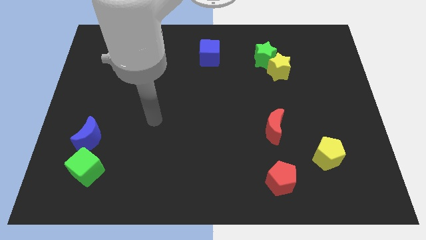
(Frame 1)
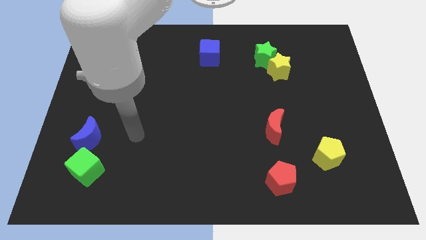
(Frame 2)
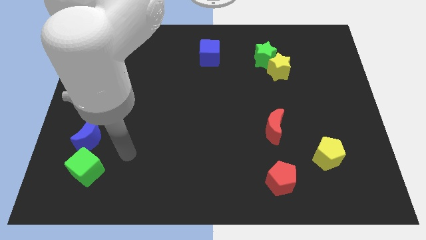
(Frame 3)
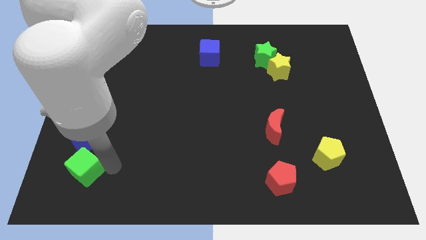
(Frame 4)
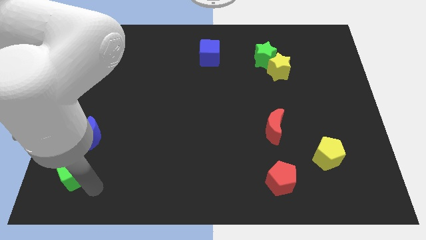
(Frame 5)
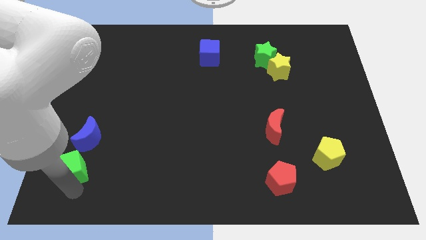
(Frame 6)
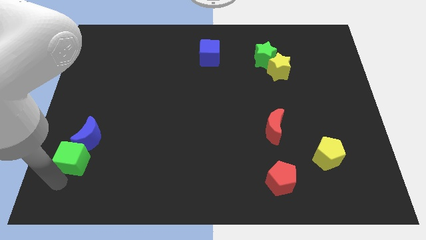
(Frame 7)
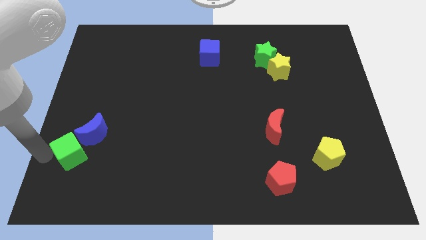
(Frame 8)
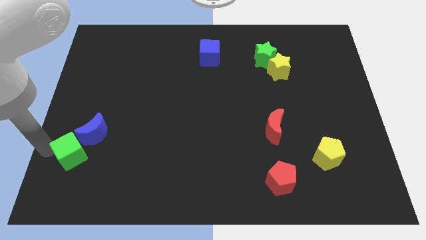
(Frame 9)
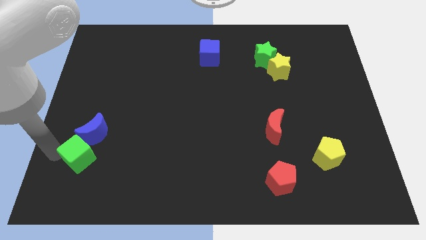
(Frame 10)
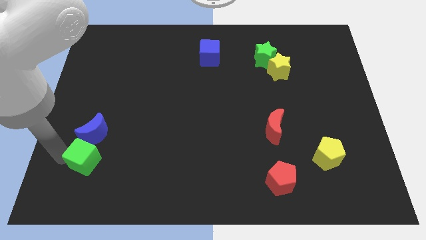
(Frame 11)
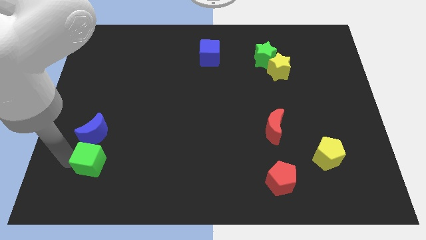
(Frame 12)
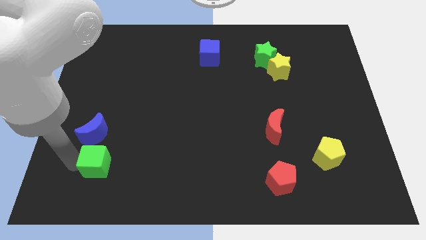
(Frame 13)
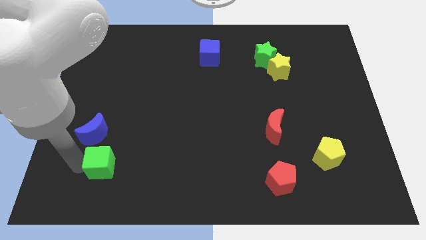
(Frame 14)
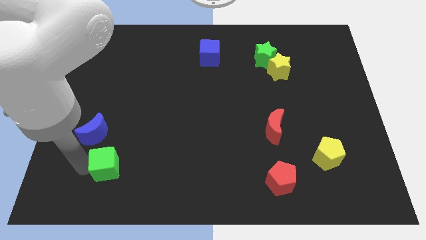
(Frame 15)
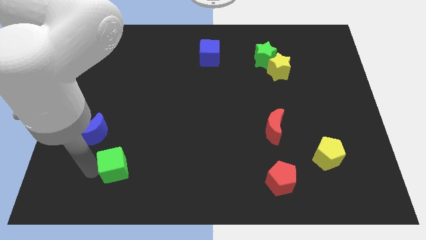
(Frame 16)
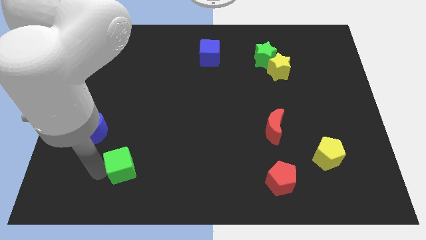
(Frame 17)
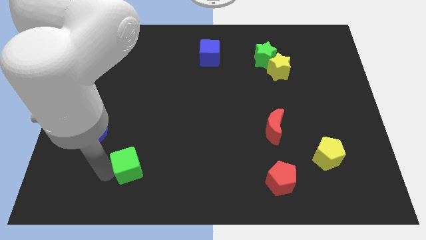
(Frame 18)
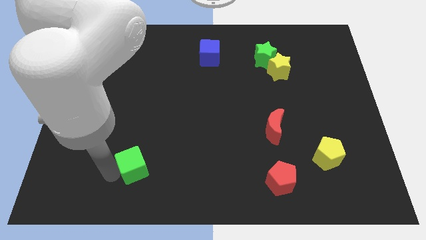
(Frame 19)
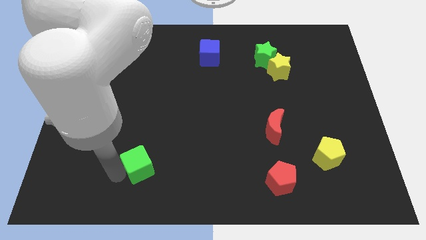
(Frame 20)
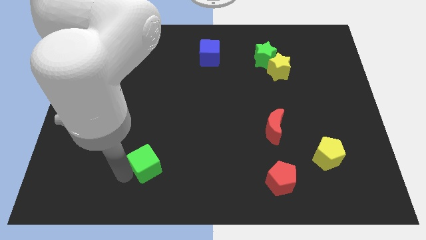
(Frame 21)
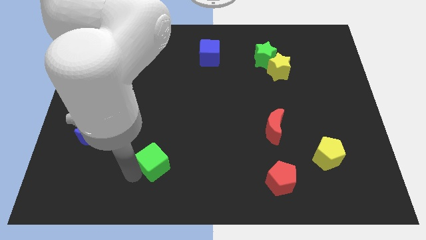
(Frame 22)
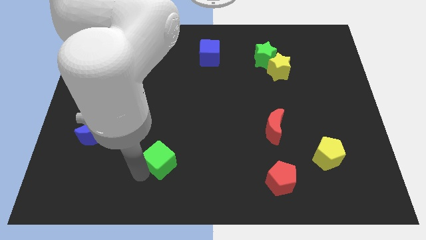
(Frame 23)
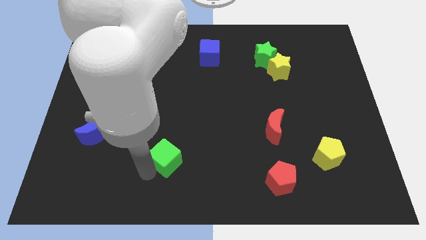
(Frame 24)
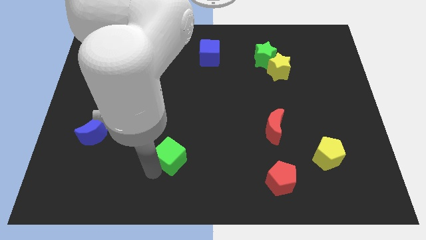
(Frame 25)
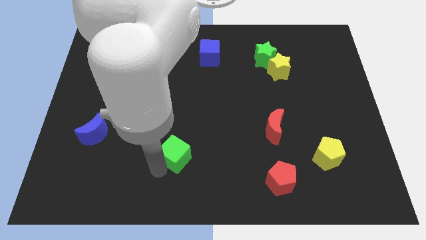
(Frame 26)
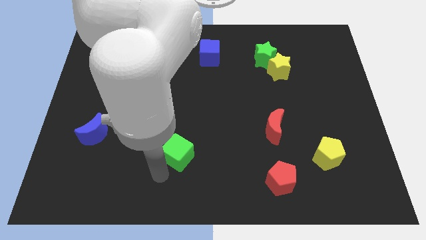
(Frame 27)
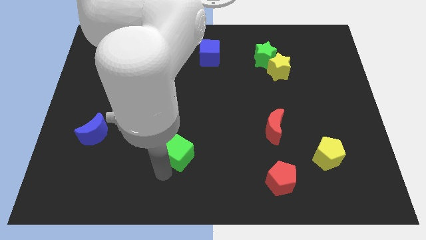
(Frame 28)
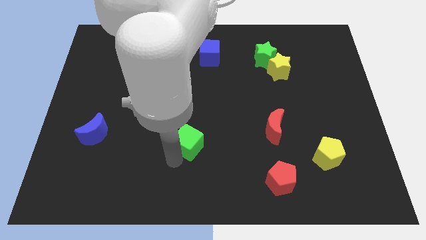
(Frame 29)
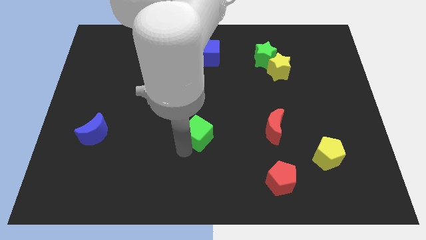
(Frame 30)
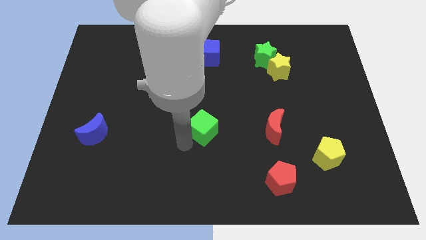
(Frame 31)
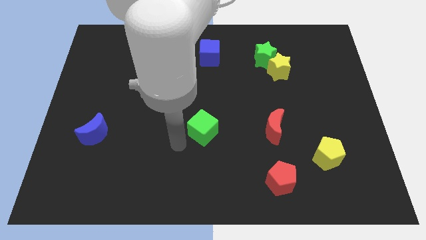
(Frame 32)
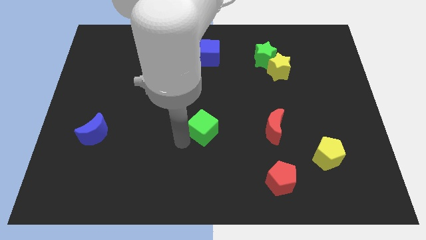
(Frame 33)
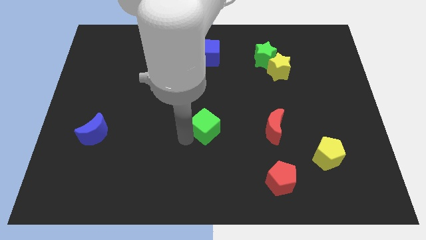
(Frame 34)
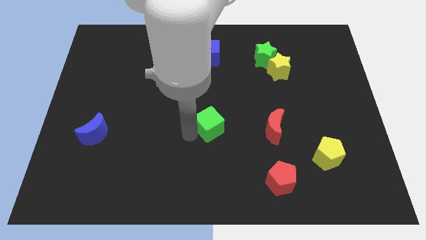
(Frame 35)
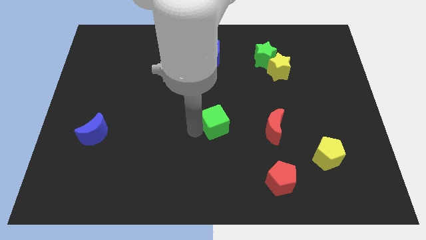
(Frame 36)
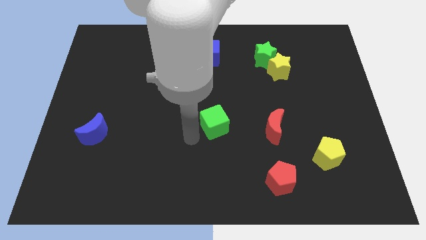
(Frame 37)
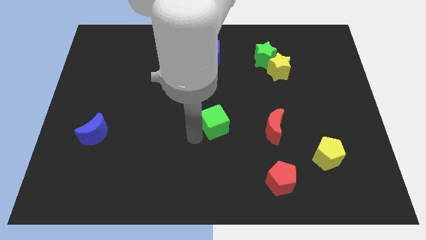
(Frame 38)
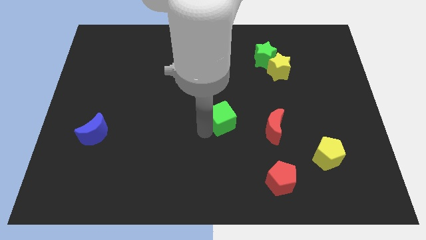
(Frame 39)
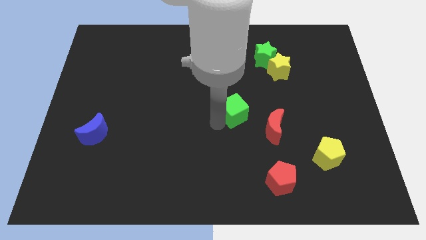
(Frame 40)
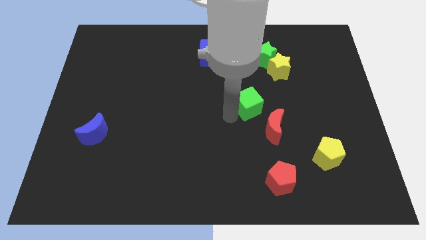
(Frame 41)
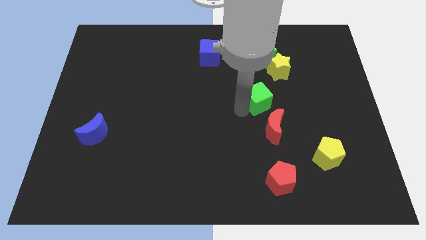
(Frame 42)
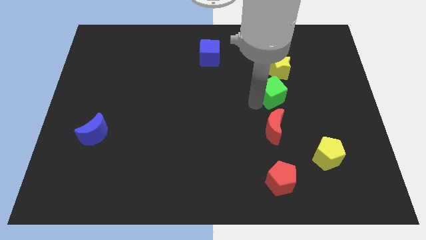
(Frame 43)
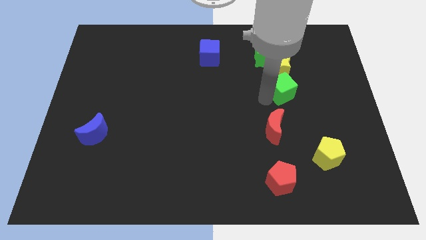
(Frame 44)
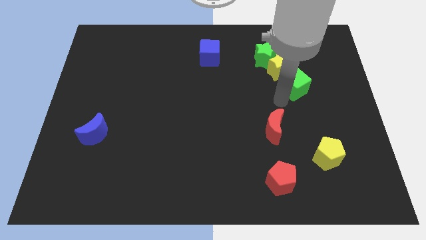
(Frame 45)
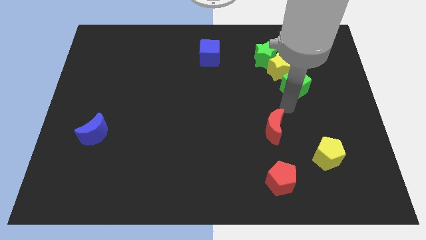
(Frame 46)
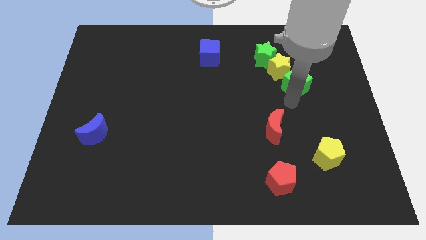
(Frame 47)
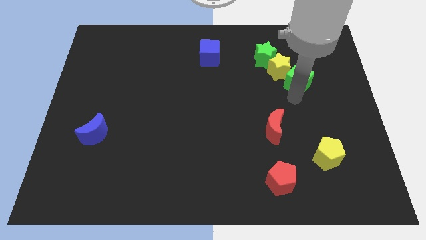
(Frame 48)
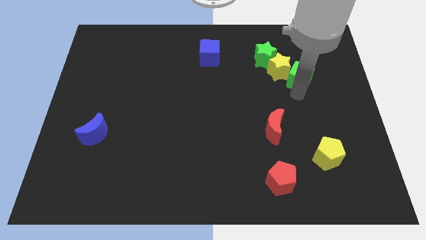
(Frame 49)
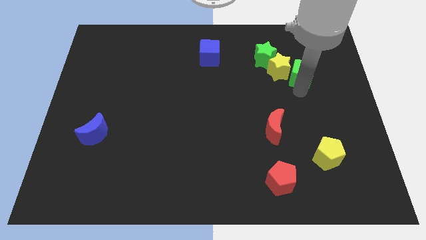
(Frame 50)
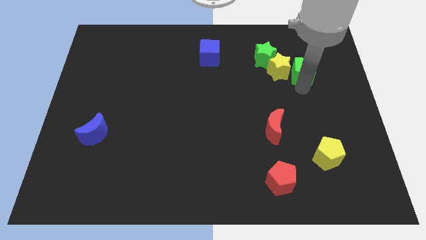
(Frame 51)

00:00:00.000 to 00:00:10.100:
slide the green cube diagonally up and to the right of the yellow star

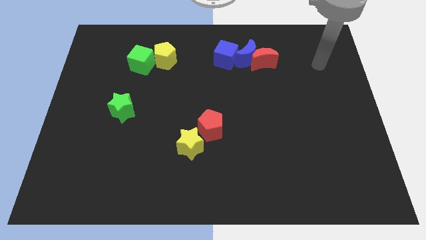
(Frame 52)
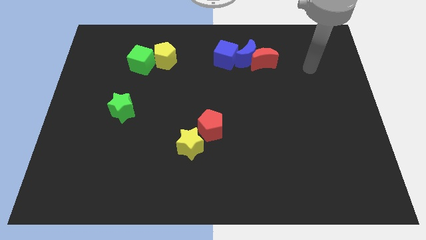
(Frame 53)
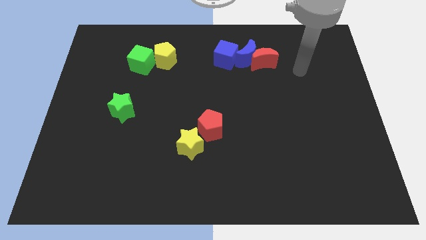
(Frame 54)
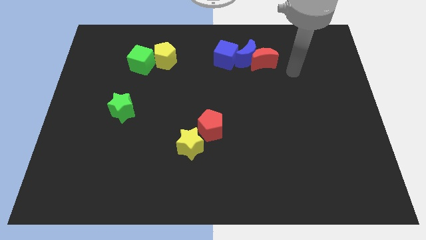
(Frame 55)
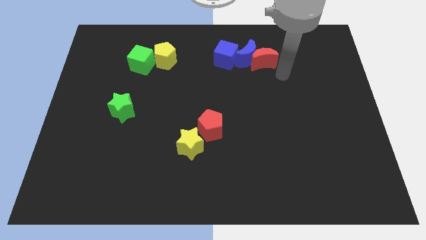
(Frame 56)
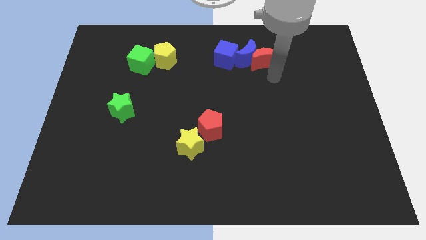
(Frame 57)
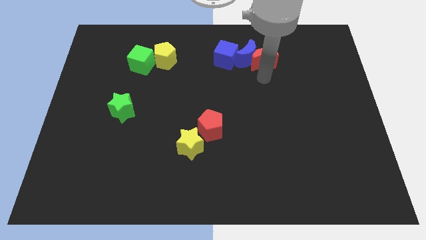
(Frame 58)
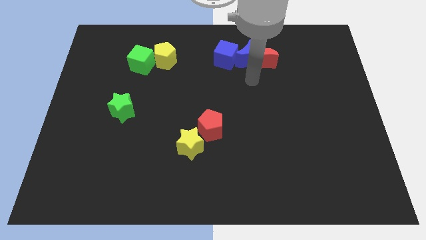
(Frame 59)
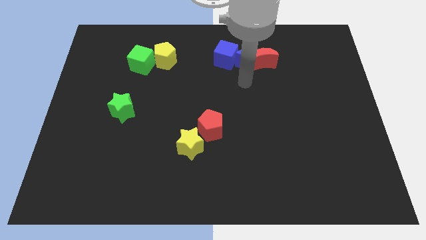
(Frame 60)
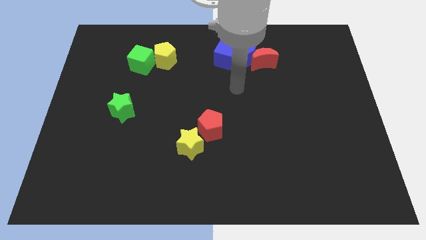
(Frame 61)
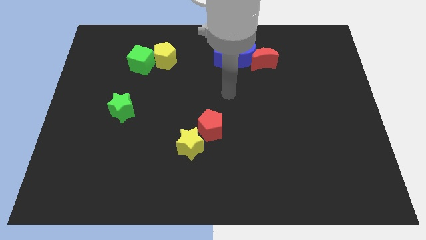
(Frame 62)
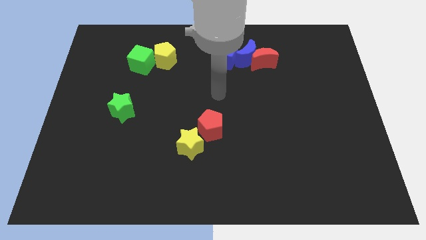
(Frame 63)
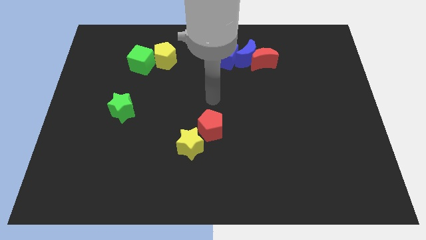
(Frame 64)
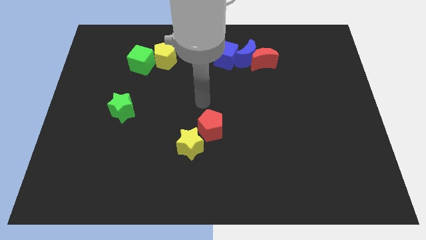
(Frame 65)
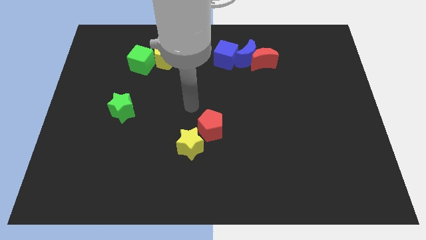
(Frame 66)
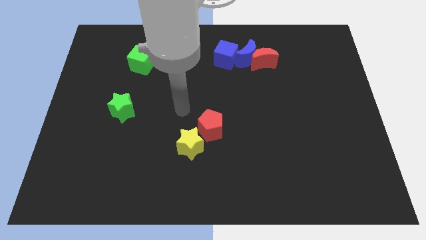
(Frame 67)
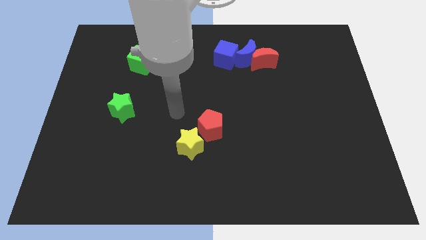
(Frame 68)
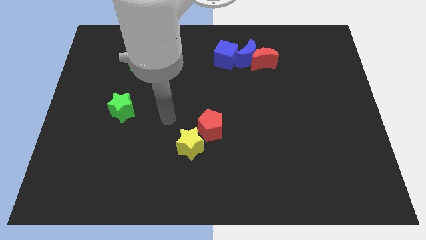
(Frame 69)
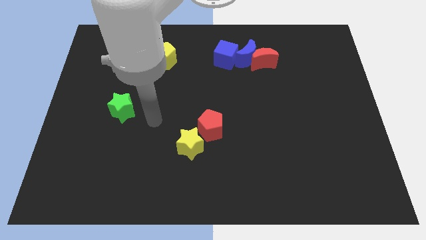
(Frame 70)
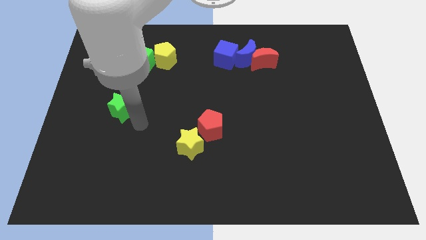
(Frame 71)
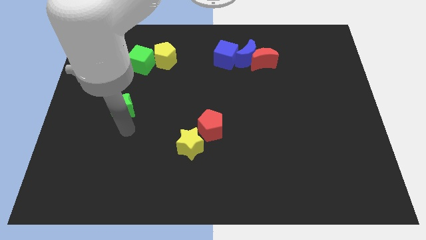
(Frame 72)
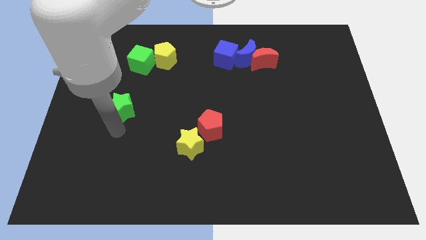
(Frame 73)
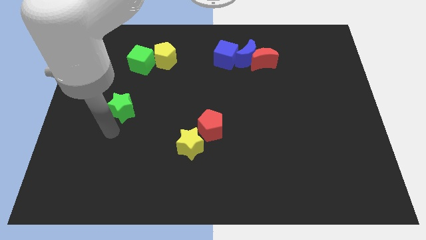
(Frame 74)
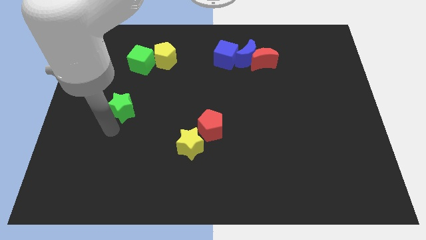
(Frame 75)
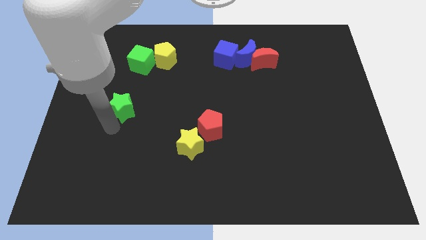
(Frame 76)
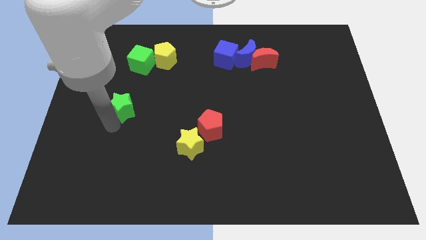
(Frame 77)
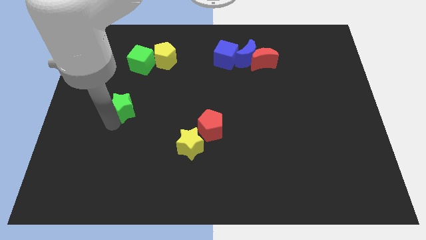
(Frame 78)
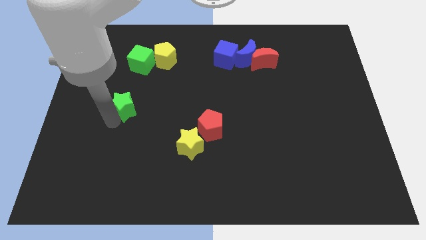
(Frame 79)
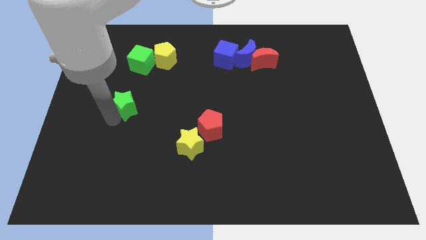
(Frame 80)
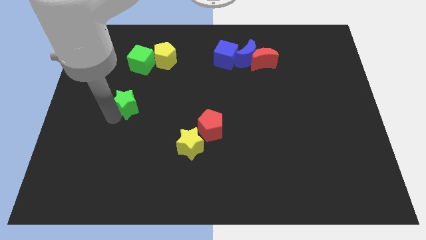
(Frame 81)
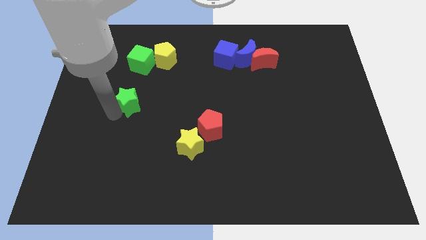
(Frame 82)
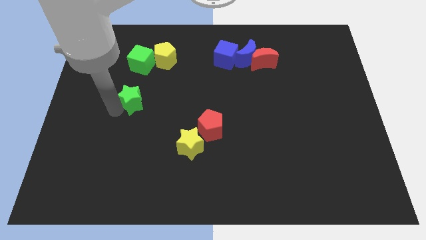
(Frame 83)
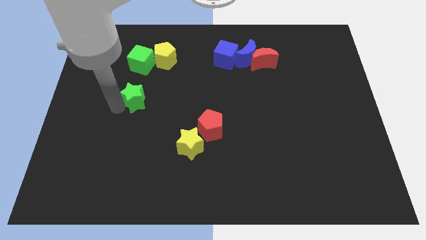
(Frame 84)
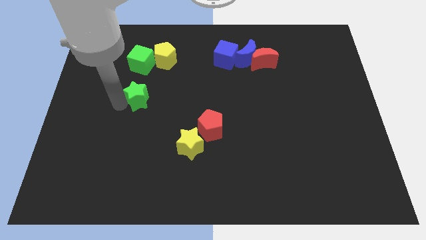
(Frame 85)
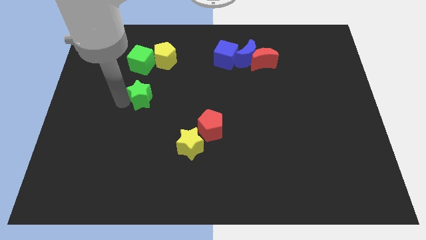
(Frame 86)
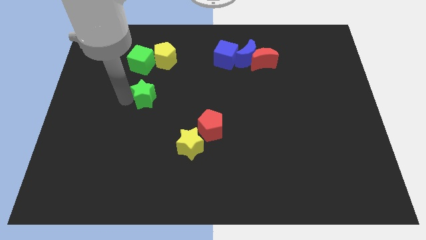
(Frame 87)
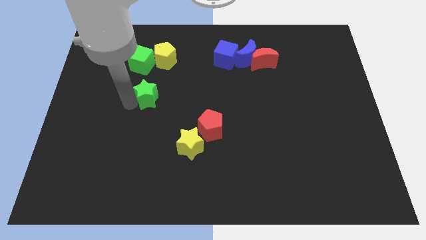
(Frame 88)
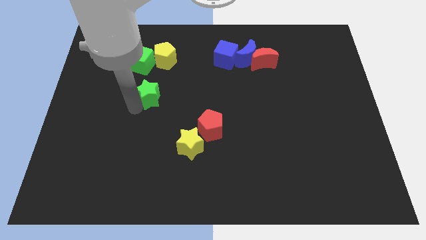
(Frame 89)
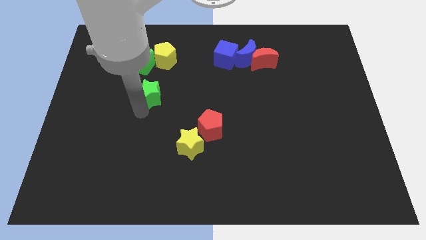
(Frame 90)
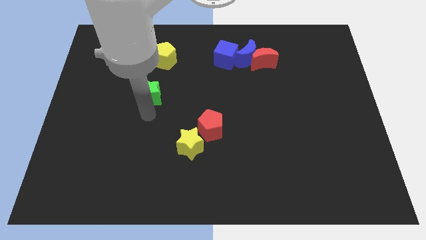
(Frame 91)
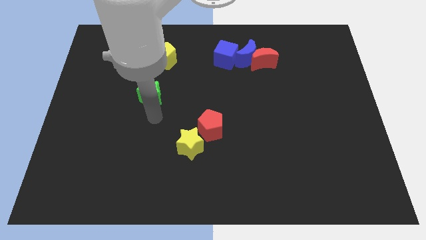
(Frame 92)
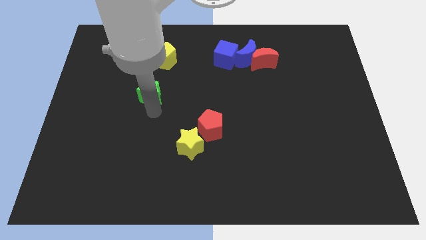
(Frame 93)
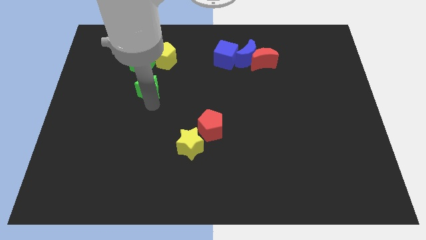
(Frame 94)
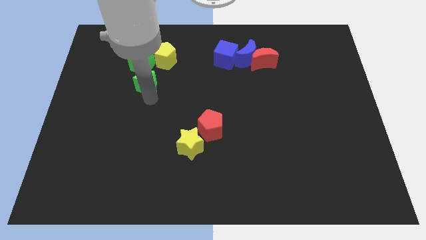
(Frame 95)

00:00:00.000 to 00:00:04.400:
put the green star to the bottom left of the yellow pentagon
